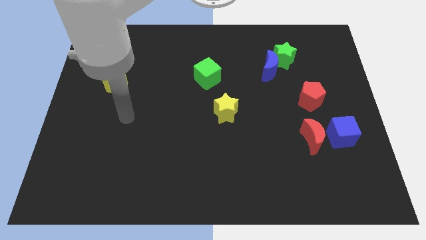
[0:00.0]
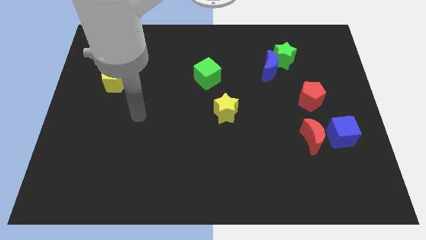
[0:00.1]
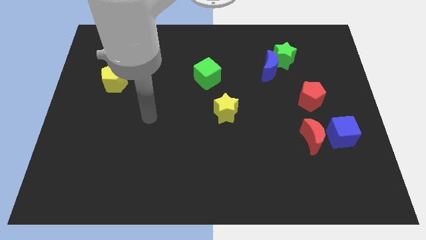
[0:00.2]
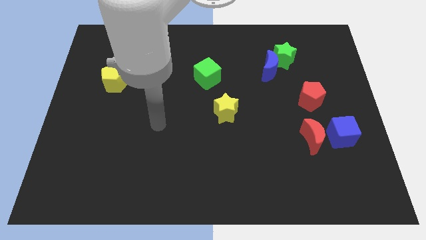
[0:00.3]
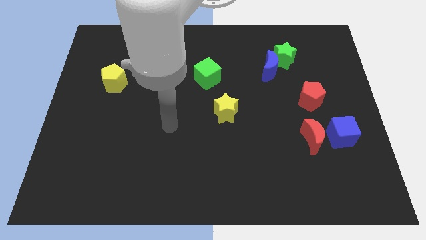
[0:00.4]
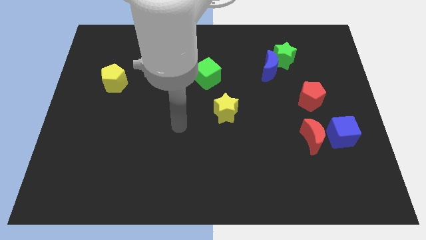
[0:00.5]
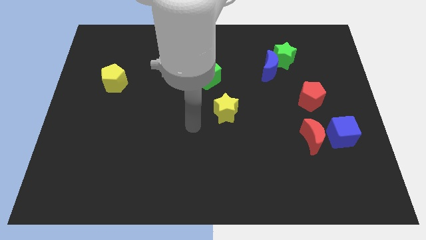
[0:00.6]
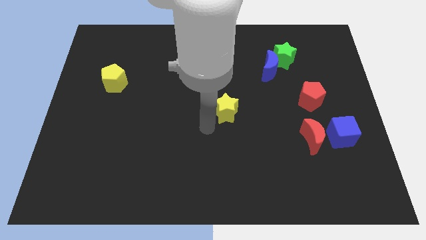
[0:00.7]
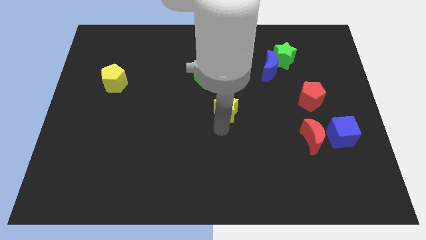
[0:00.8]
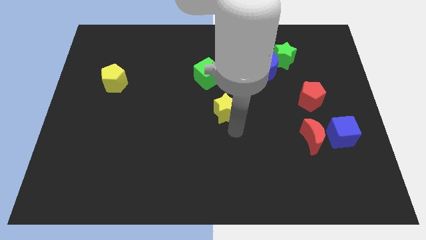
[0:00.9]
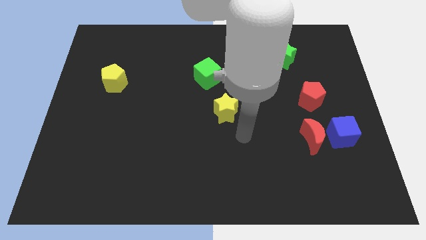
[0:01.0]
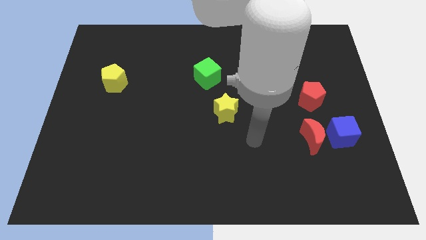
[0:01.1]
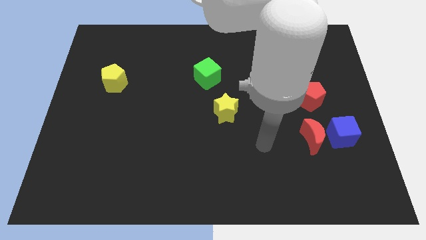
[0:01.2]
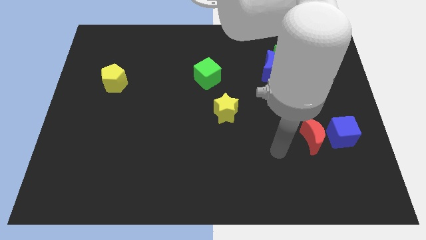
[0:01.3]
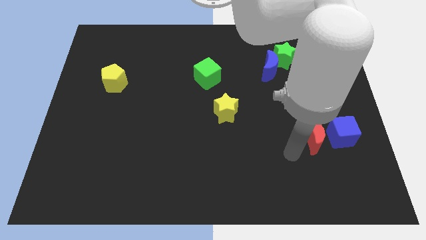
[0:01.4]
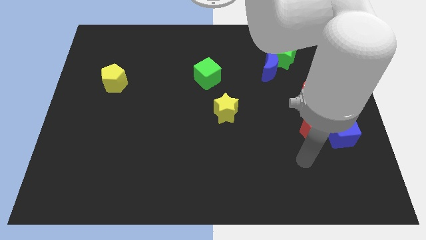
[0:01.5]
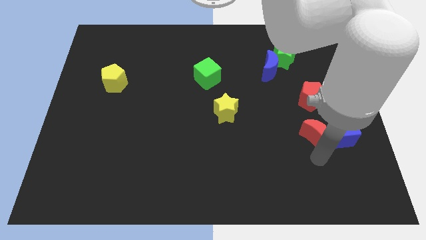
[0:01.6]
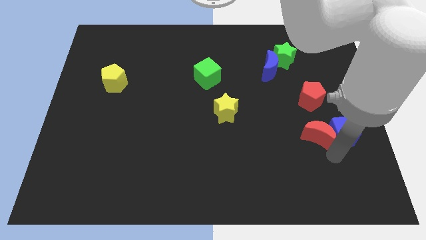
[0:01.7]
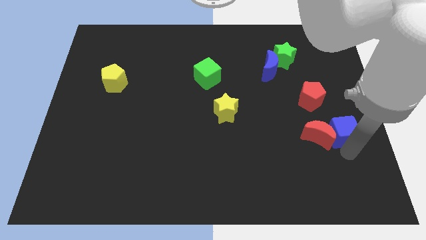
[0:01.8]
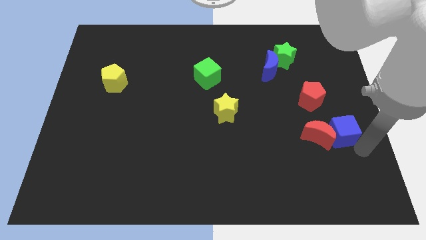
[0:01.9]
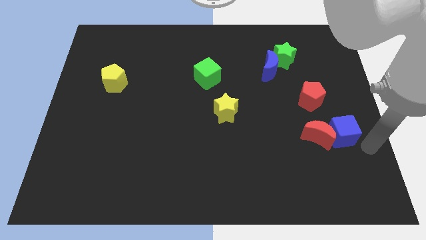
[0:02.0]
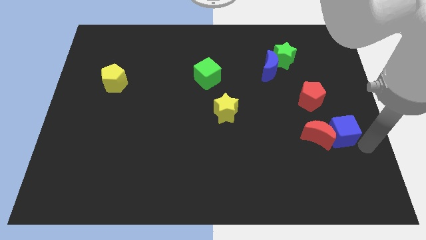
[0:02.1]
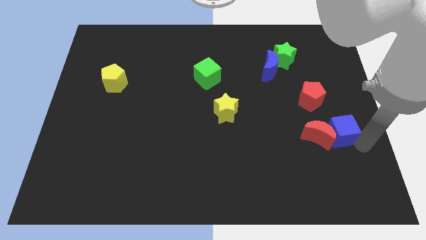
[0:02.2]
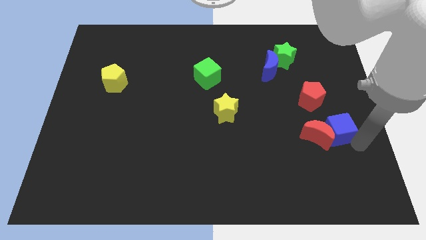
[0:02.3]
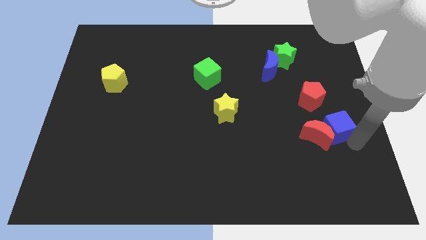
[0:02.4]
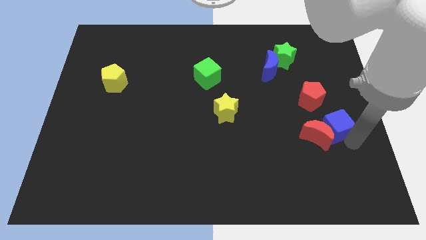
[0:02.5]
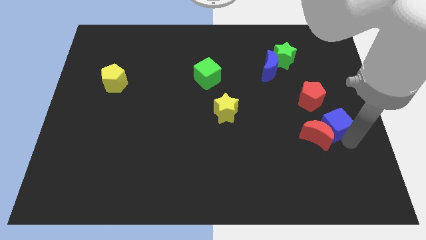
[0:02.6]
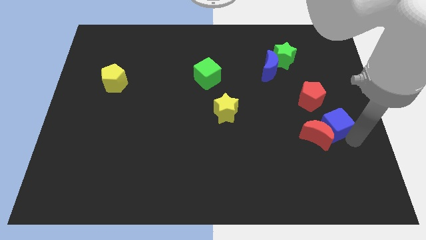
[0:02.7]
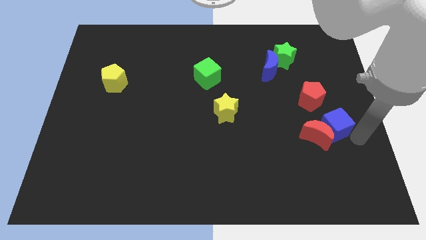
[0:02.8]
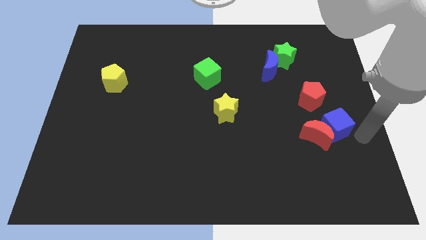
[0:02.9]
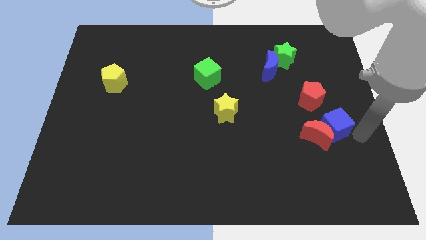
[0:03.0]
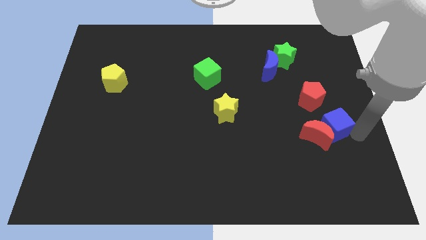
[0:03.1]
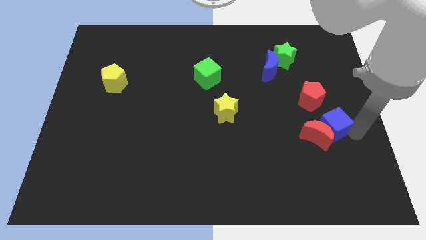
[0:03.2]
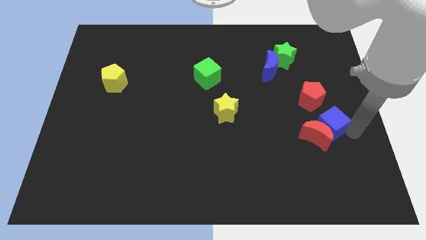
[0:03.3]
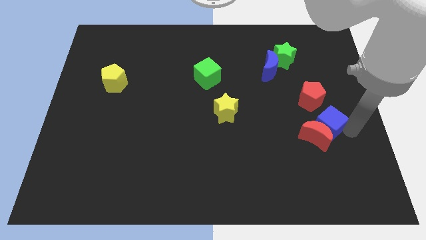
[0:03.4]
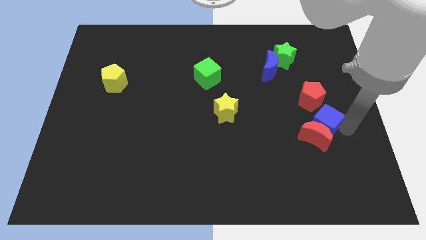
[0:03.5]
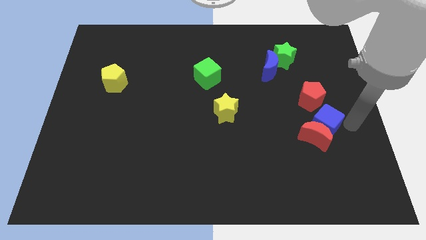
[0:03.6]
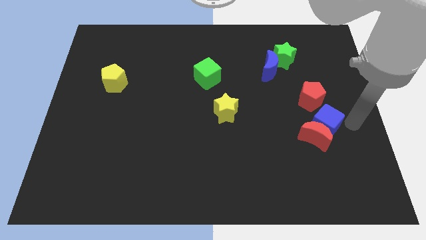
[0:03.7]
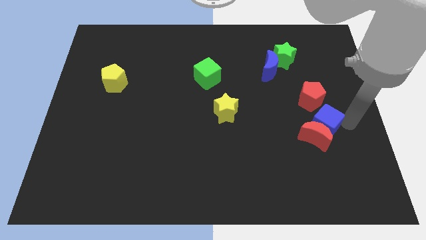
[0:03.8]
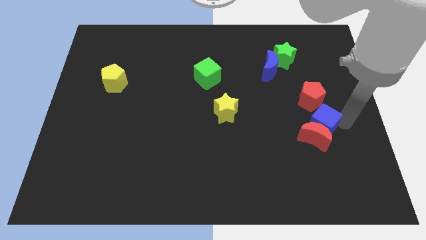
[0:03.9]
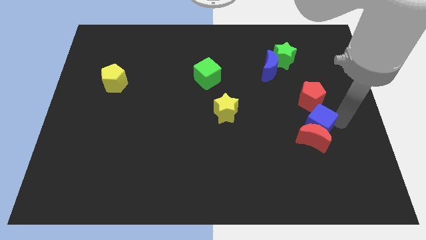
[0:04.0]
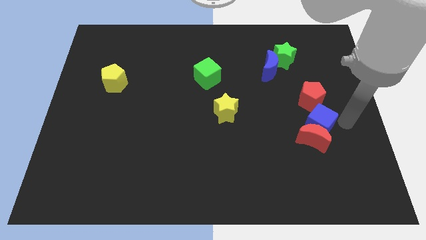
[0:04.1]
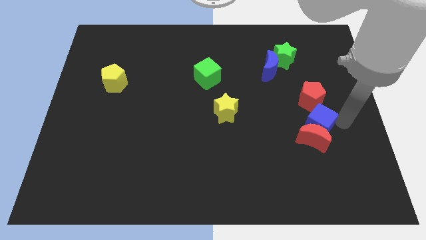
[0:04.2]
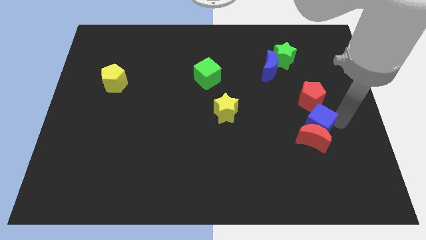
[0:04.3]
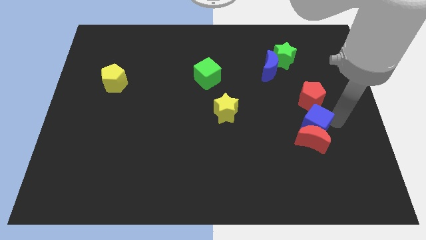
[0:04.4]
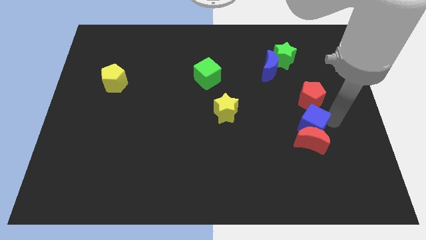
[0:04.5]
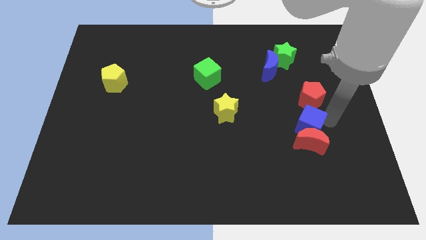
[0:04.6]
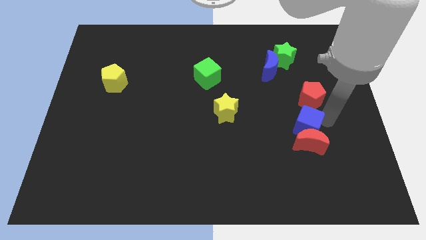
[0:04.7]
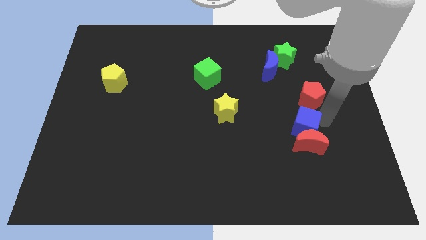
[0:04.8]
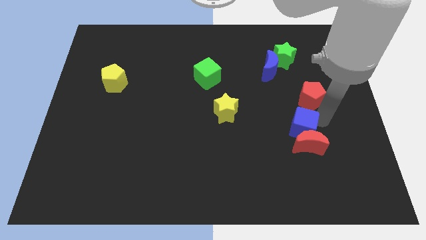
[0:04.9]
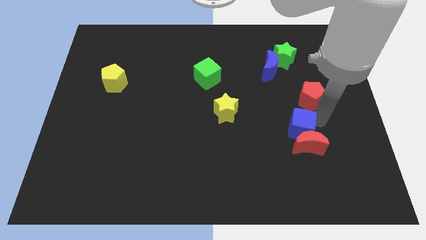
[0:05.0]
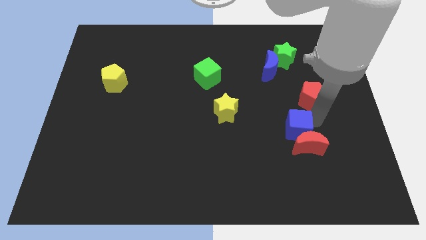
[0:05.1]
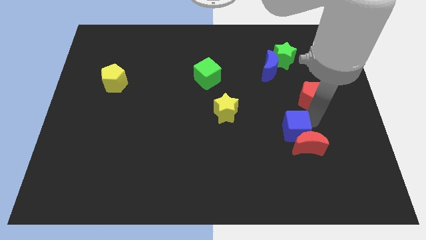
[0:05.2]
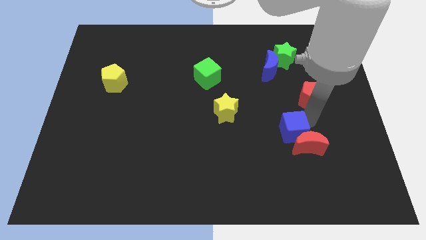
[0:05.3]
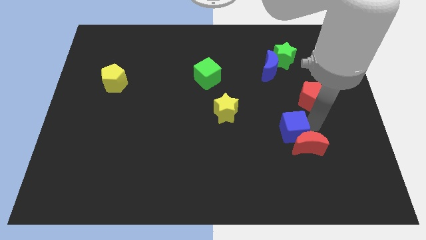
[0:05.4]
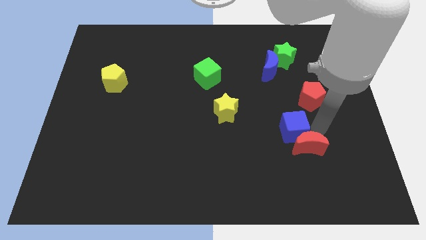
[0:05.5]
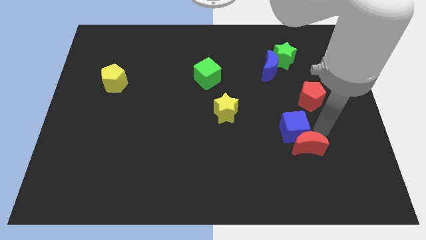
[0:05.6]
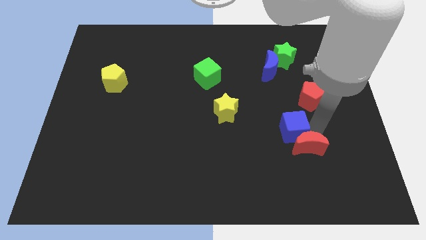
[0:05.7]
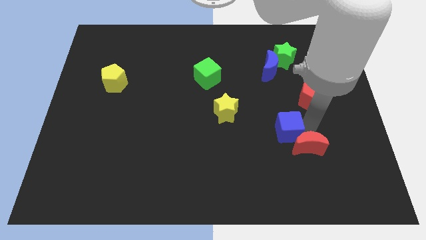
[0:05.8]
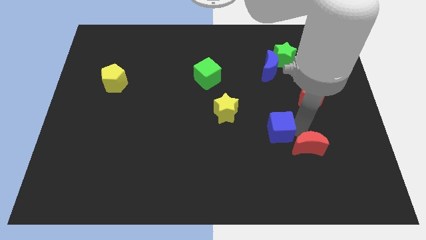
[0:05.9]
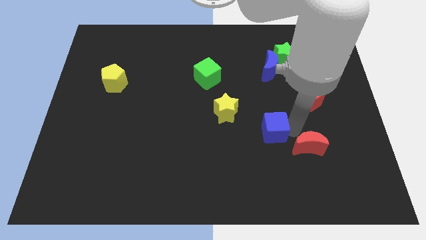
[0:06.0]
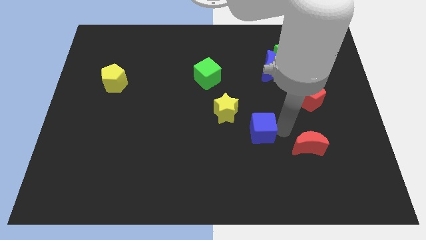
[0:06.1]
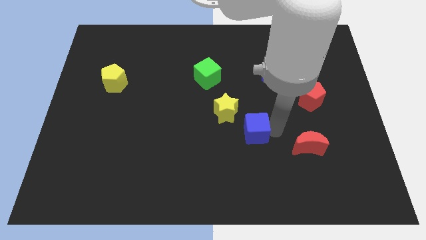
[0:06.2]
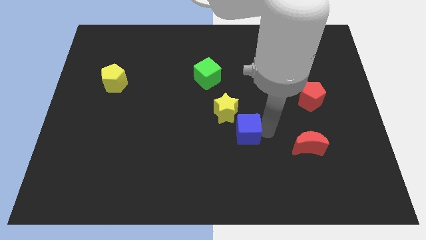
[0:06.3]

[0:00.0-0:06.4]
push the blue cube to the left

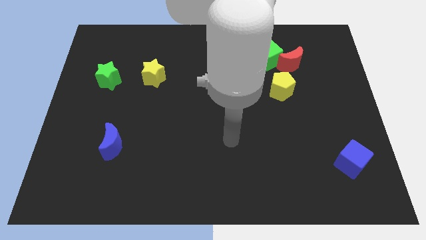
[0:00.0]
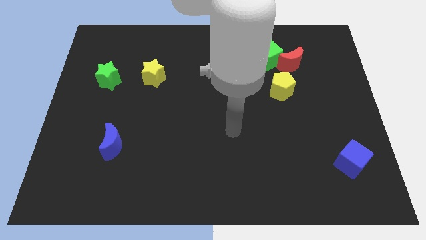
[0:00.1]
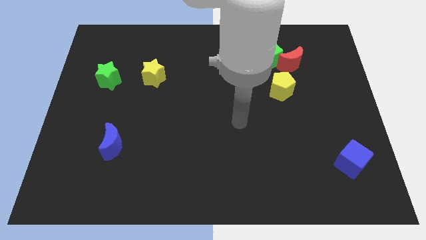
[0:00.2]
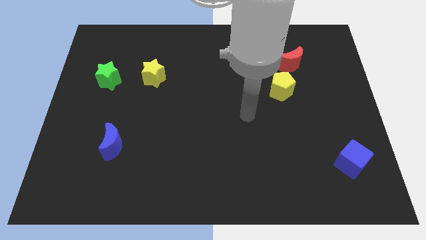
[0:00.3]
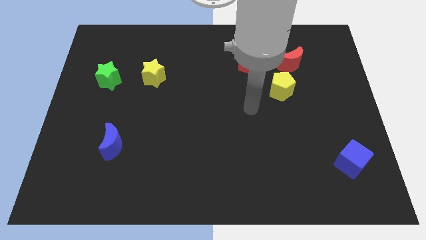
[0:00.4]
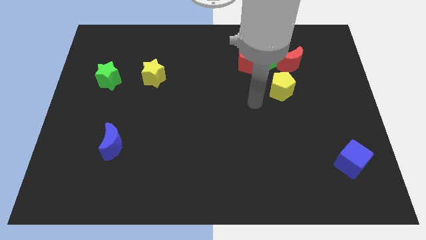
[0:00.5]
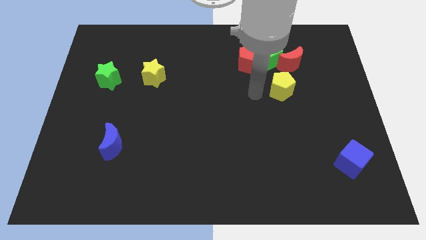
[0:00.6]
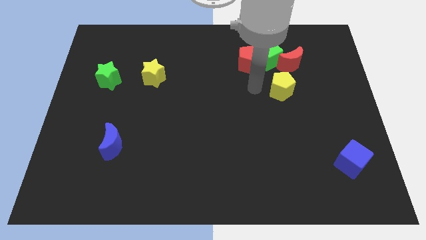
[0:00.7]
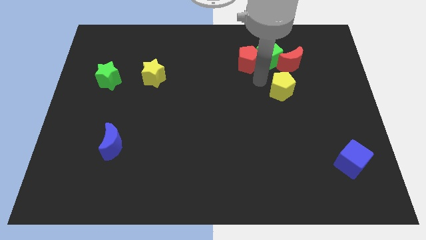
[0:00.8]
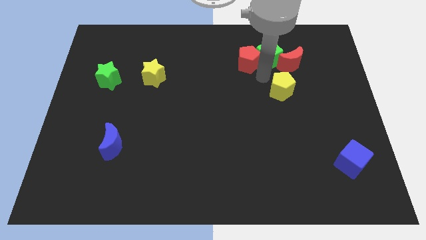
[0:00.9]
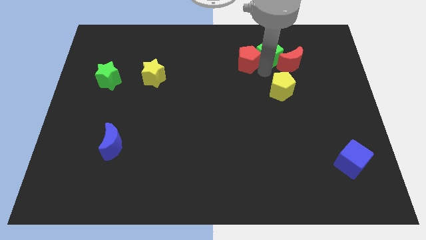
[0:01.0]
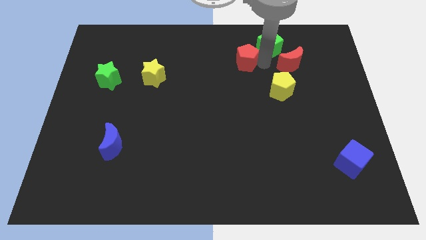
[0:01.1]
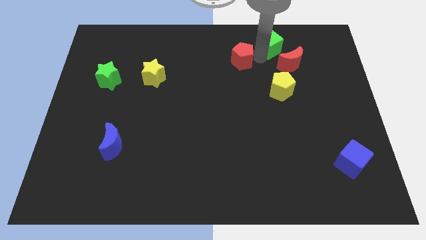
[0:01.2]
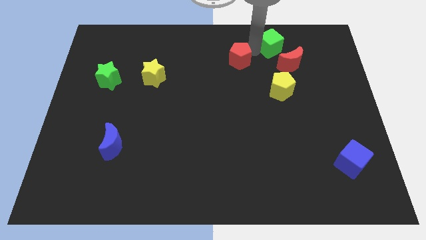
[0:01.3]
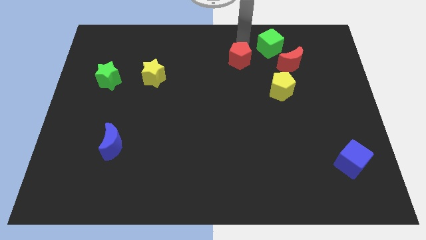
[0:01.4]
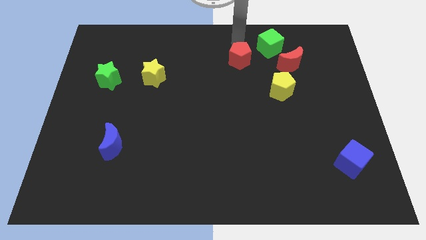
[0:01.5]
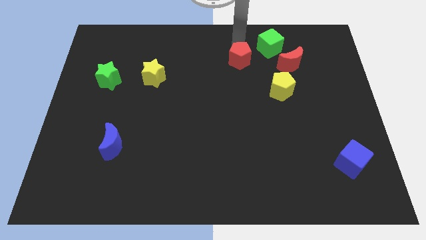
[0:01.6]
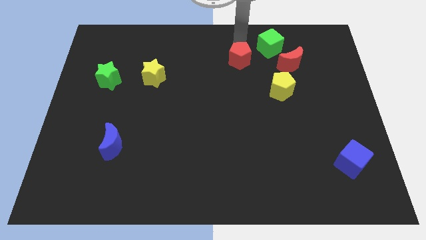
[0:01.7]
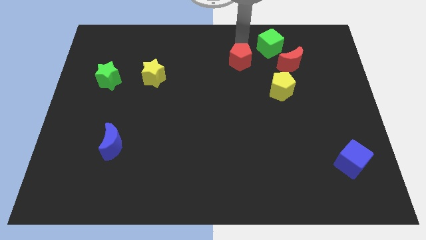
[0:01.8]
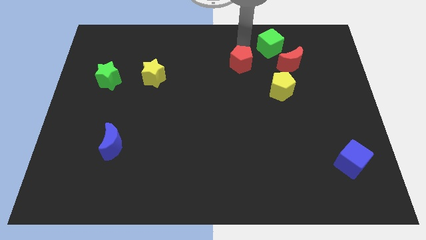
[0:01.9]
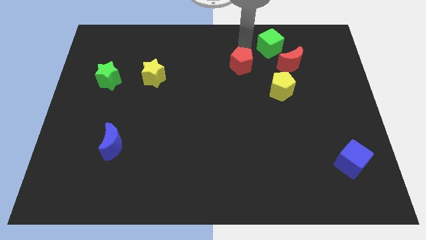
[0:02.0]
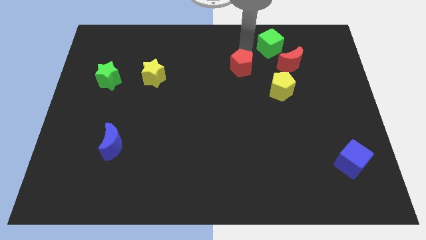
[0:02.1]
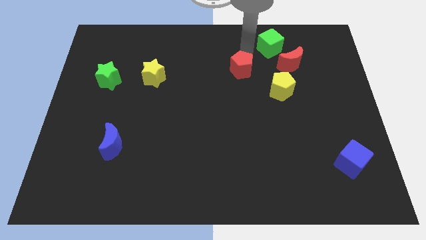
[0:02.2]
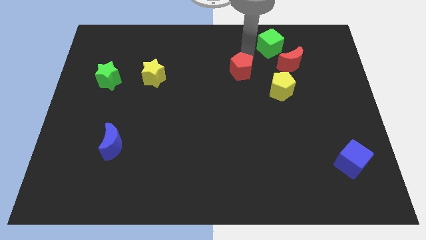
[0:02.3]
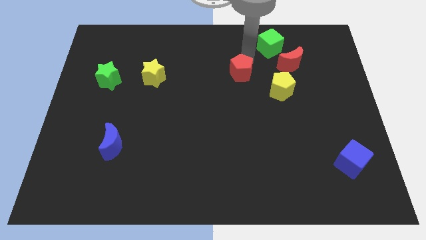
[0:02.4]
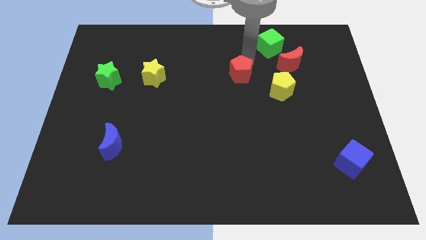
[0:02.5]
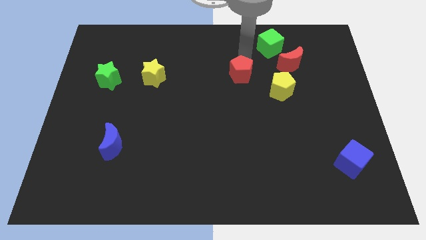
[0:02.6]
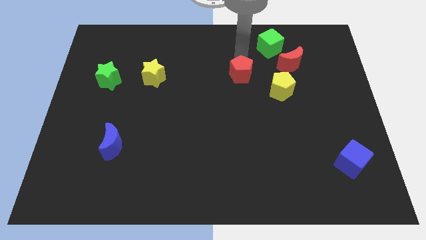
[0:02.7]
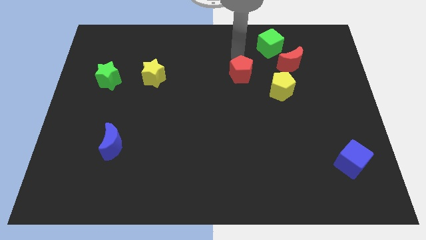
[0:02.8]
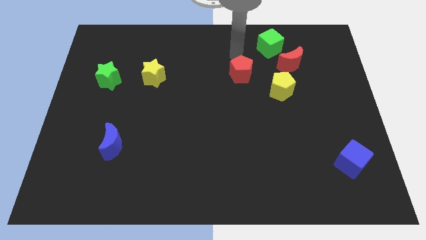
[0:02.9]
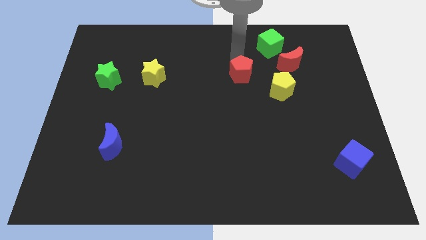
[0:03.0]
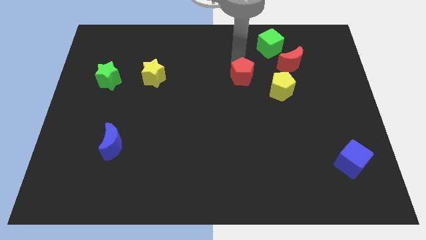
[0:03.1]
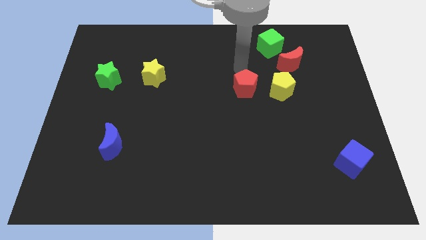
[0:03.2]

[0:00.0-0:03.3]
push the red pentagon somewhat down
